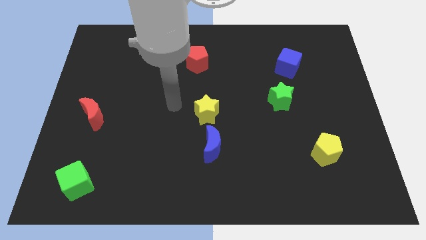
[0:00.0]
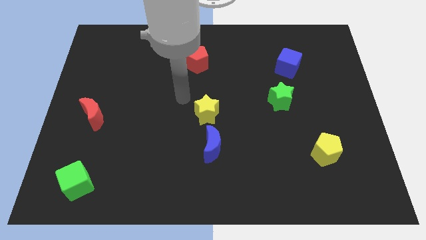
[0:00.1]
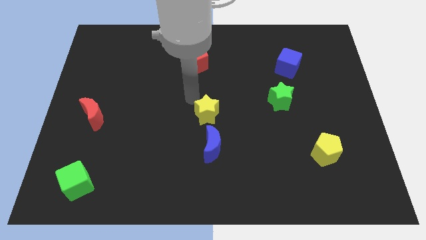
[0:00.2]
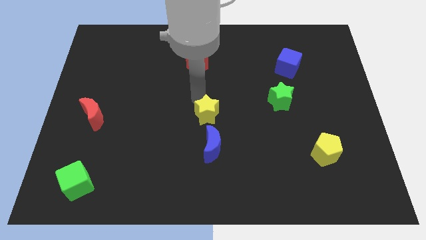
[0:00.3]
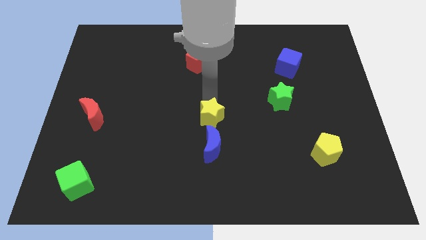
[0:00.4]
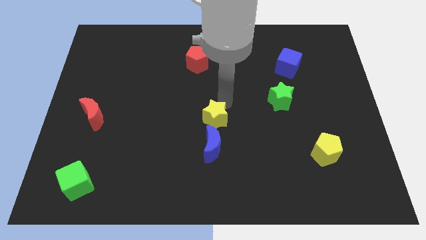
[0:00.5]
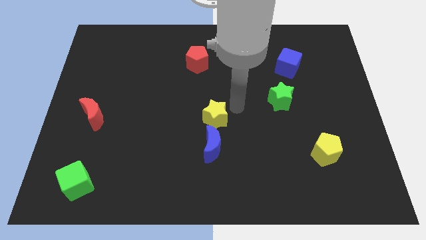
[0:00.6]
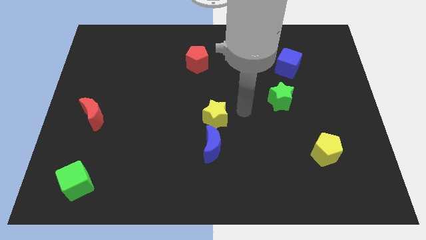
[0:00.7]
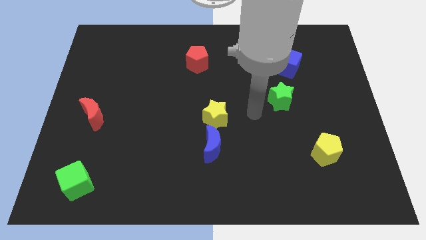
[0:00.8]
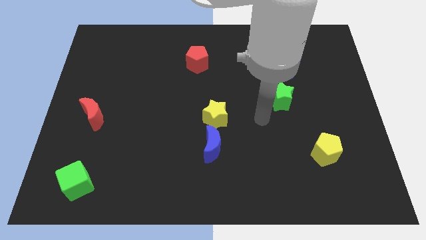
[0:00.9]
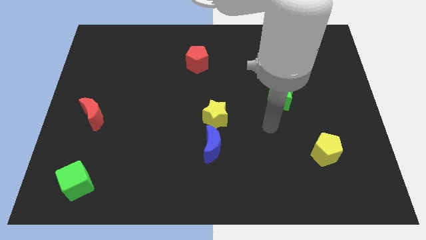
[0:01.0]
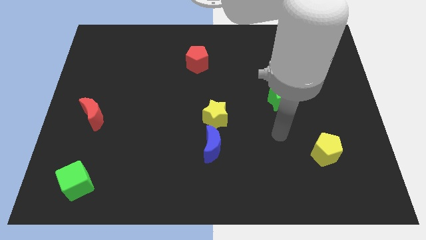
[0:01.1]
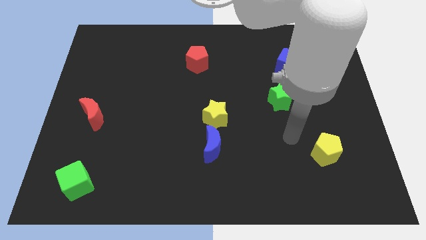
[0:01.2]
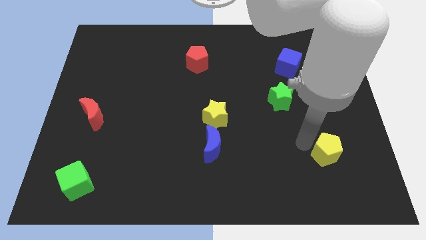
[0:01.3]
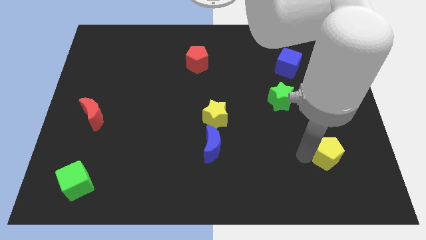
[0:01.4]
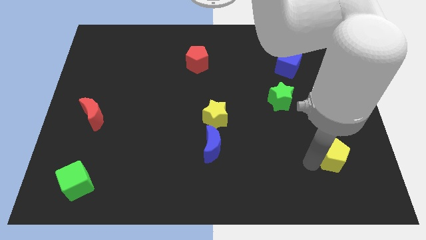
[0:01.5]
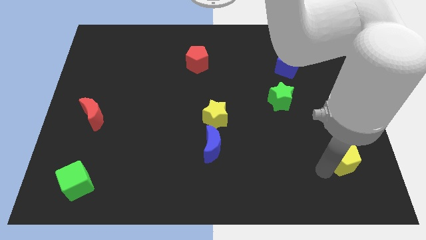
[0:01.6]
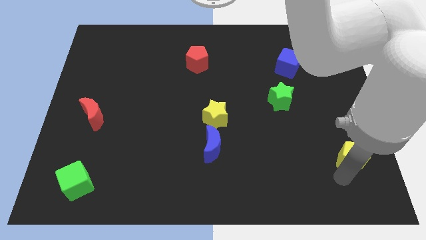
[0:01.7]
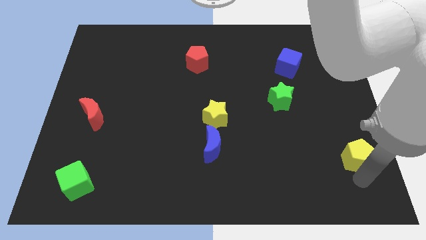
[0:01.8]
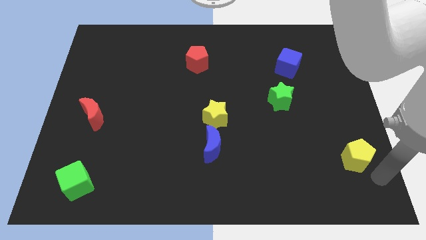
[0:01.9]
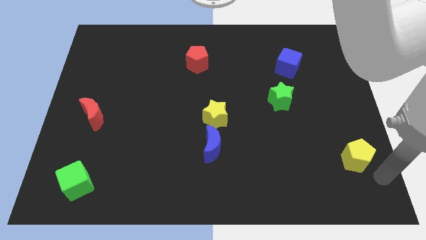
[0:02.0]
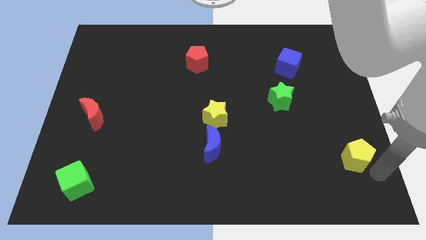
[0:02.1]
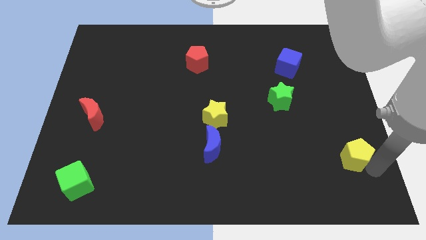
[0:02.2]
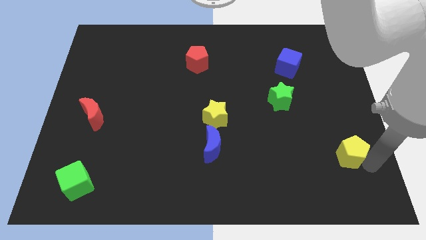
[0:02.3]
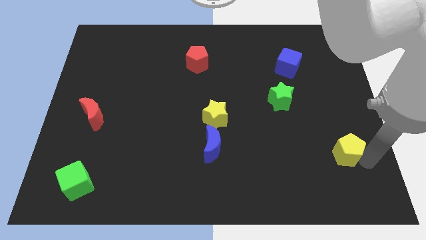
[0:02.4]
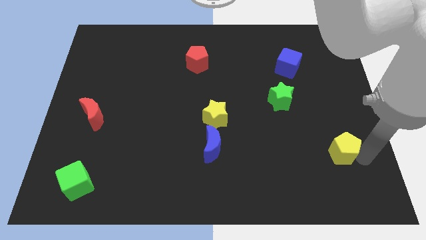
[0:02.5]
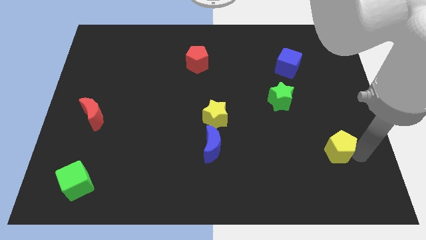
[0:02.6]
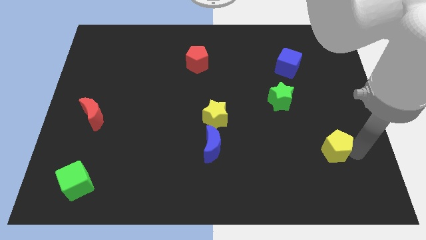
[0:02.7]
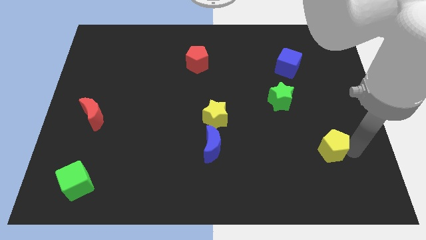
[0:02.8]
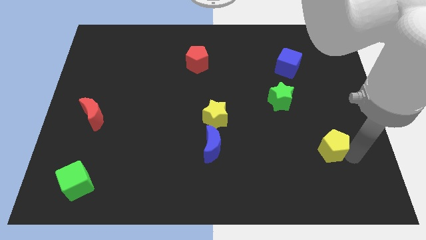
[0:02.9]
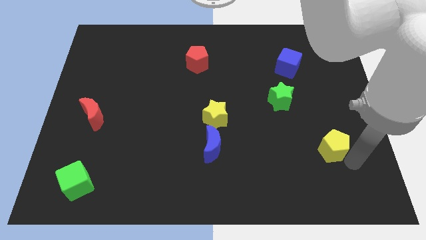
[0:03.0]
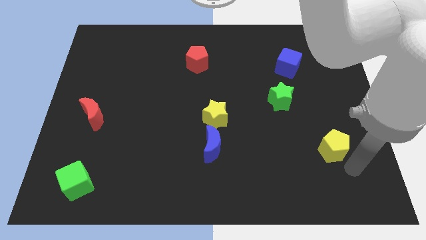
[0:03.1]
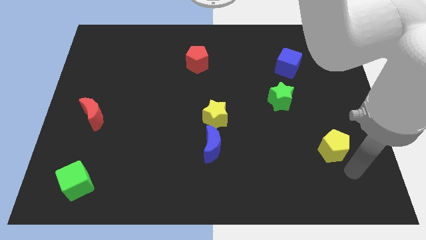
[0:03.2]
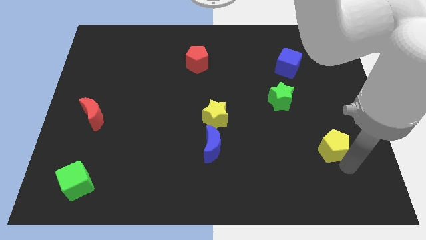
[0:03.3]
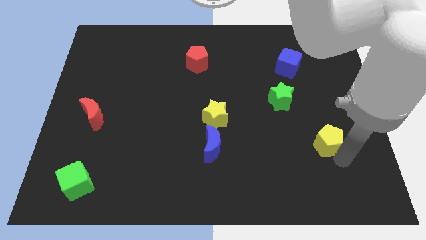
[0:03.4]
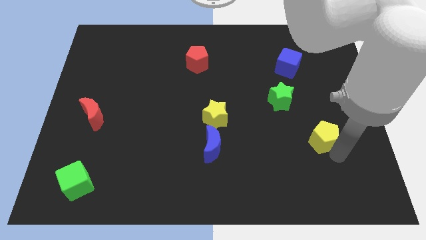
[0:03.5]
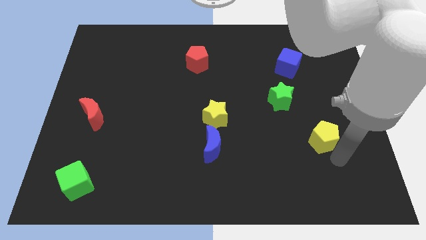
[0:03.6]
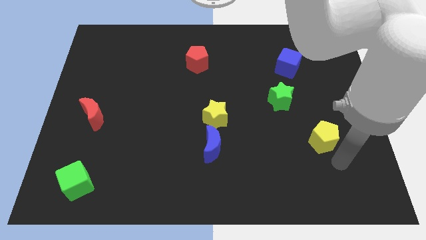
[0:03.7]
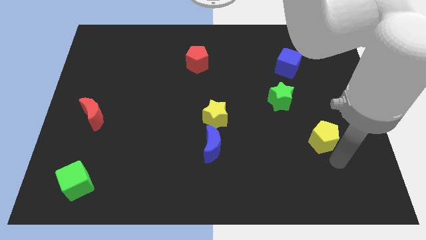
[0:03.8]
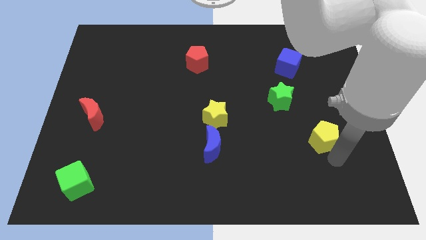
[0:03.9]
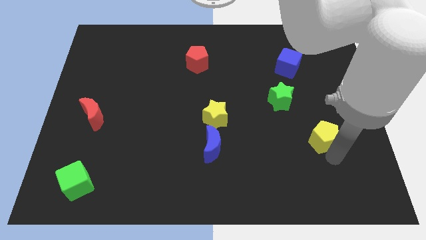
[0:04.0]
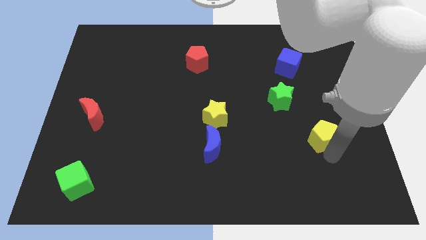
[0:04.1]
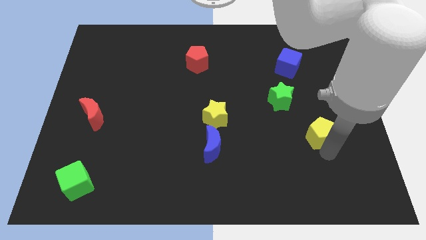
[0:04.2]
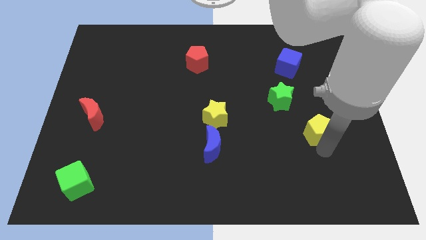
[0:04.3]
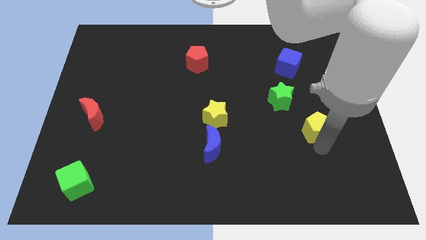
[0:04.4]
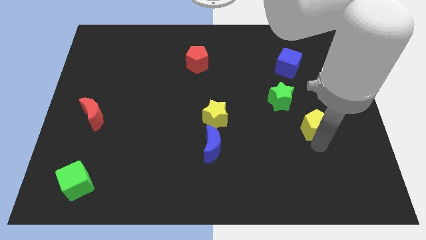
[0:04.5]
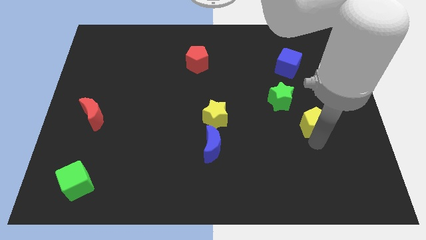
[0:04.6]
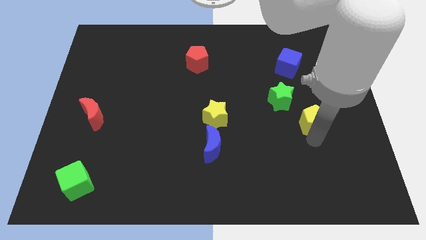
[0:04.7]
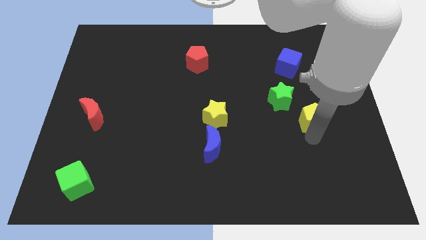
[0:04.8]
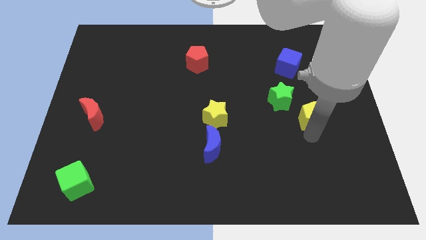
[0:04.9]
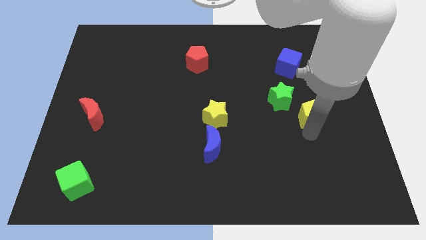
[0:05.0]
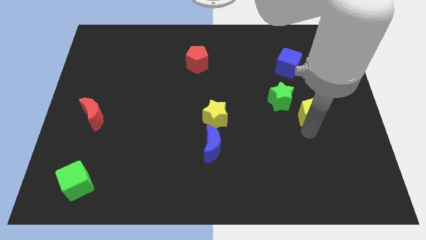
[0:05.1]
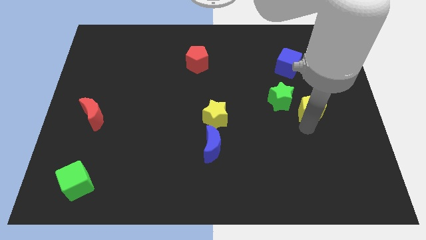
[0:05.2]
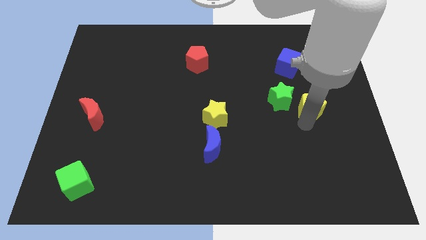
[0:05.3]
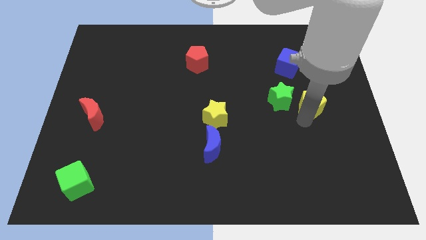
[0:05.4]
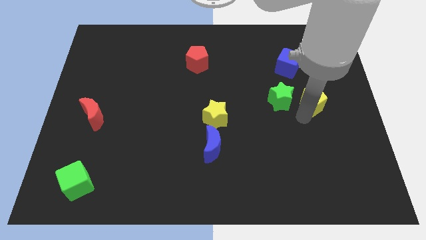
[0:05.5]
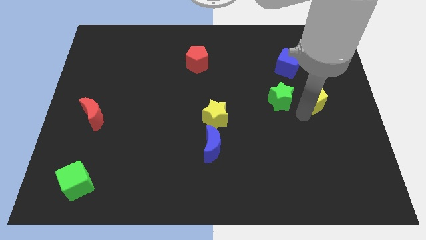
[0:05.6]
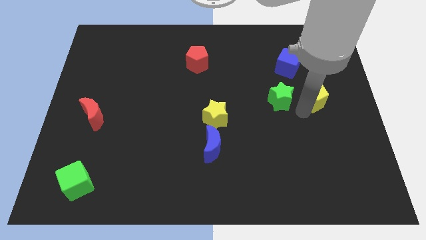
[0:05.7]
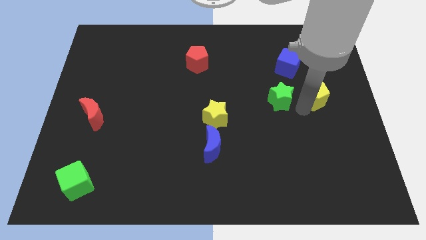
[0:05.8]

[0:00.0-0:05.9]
put the yellow pentagon diagonally down and to the right of the blue cube
